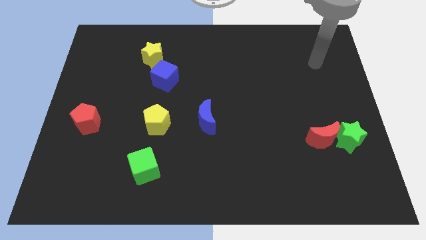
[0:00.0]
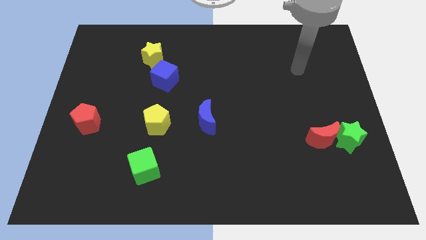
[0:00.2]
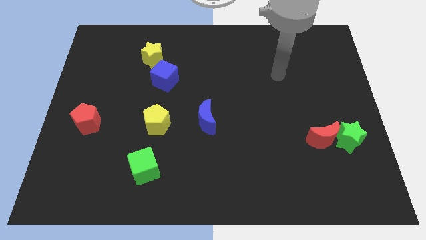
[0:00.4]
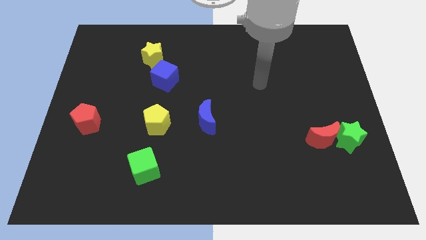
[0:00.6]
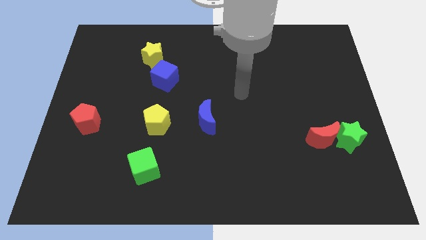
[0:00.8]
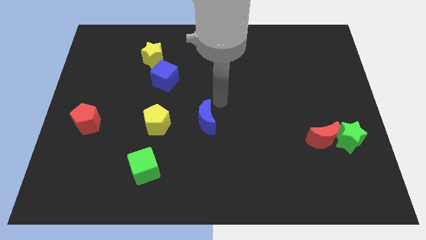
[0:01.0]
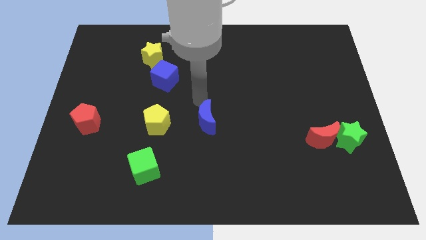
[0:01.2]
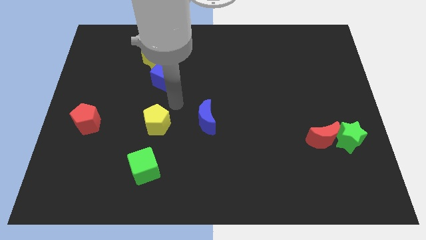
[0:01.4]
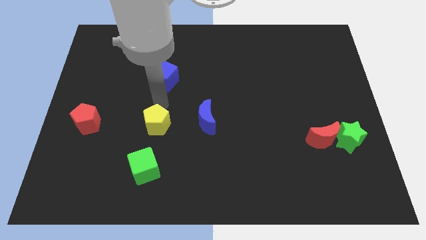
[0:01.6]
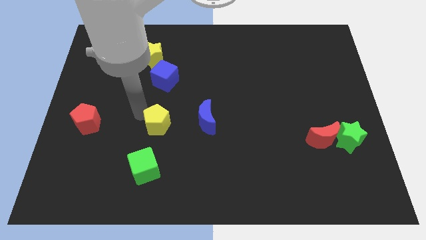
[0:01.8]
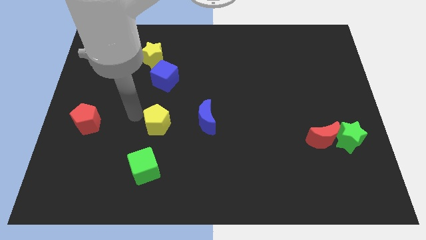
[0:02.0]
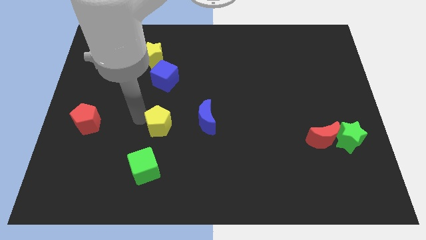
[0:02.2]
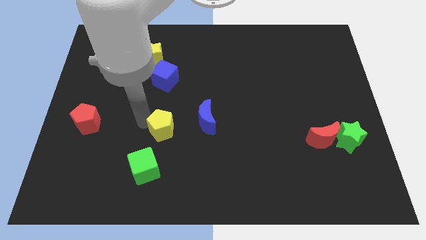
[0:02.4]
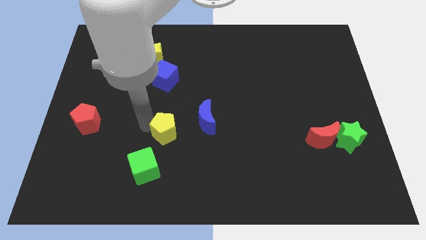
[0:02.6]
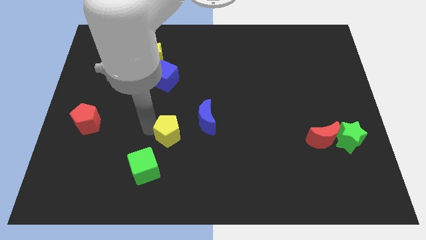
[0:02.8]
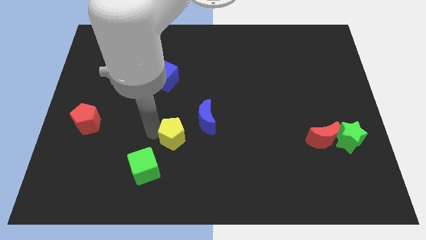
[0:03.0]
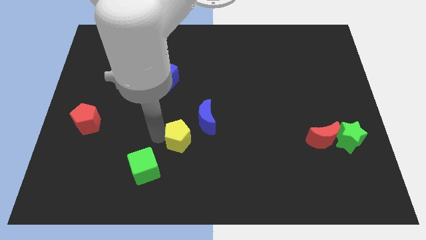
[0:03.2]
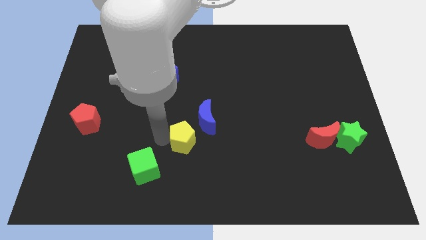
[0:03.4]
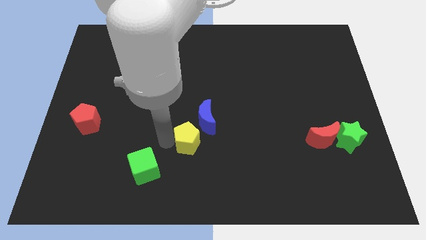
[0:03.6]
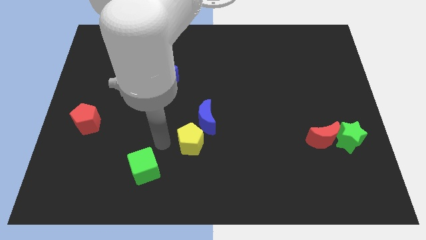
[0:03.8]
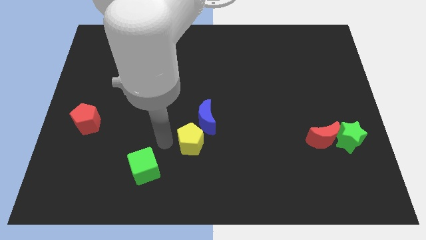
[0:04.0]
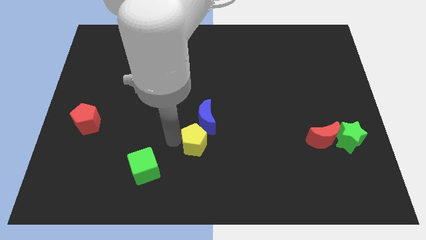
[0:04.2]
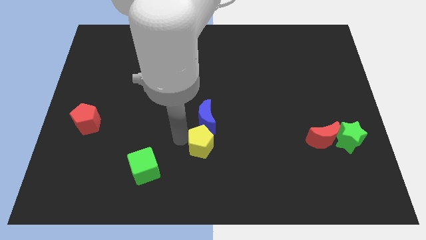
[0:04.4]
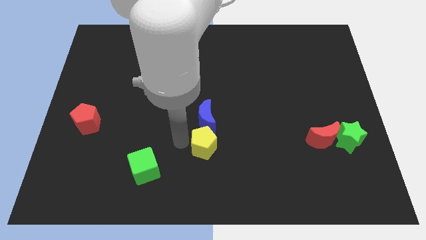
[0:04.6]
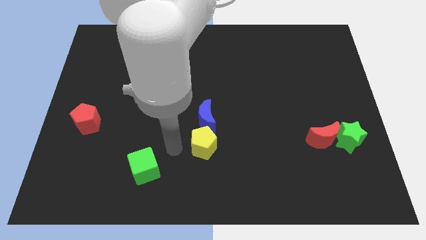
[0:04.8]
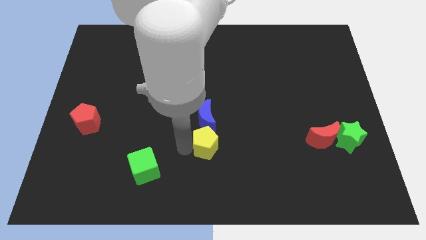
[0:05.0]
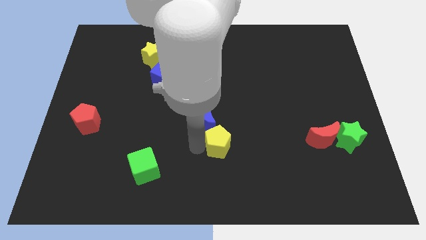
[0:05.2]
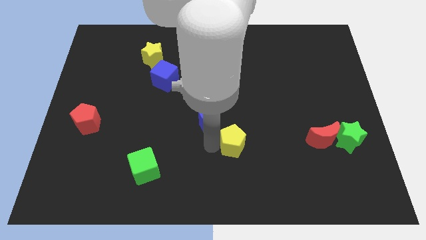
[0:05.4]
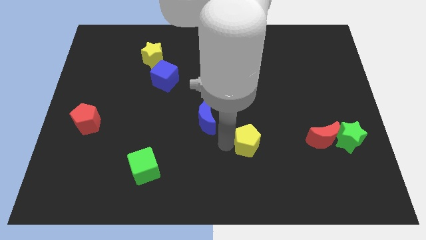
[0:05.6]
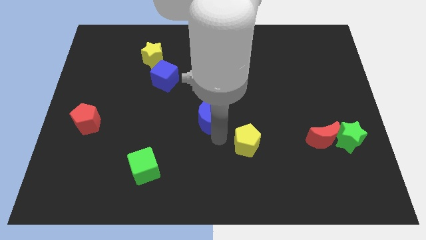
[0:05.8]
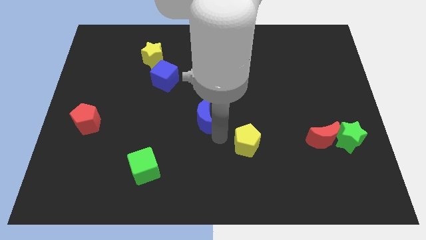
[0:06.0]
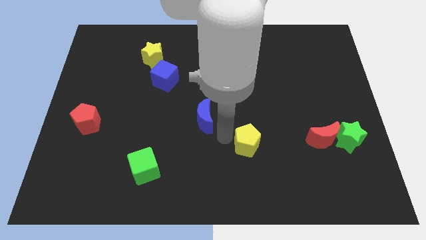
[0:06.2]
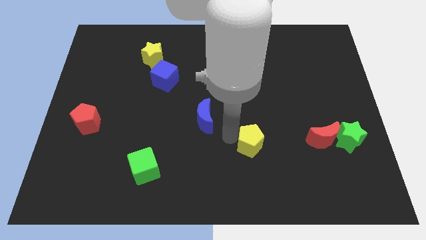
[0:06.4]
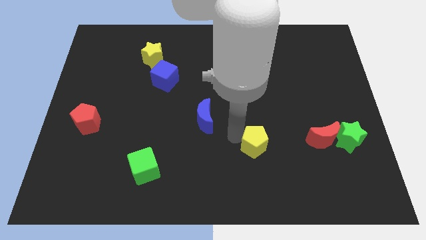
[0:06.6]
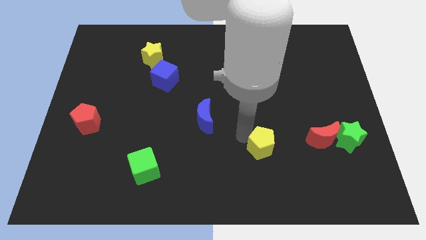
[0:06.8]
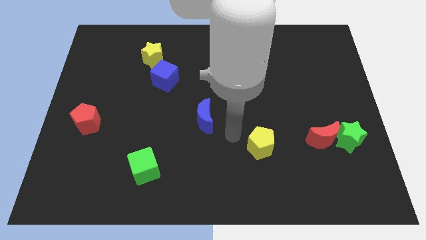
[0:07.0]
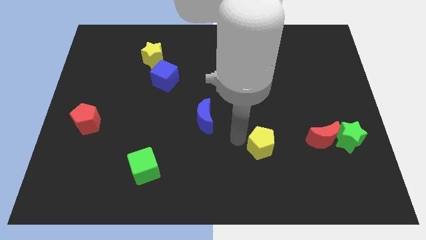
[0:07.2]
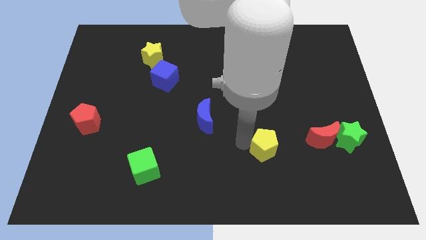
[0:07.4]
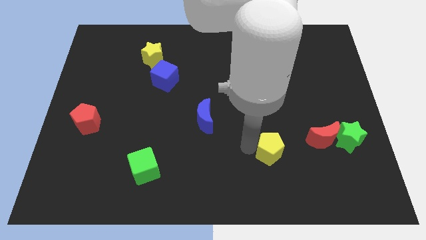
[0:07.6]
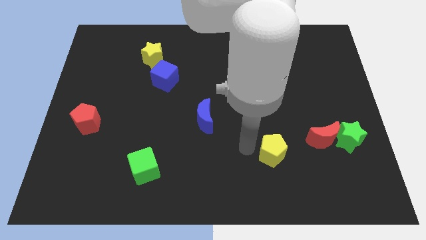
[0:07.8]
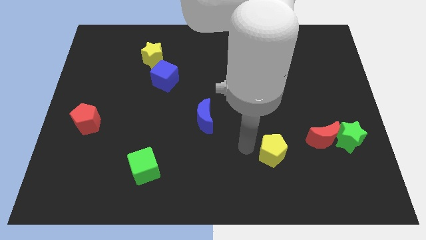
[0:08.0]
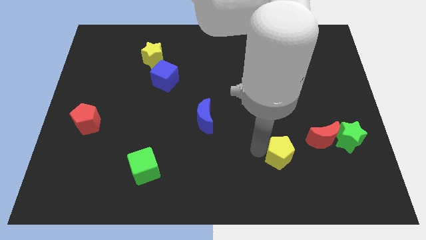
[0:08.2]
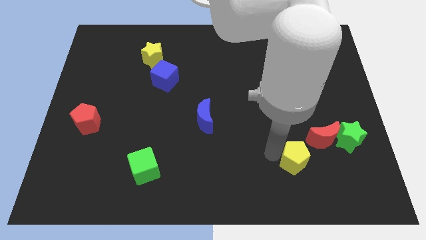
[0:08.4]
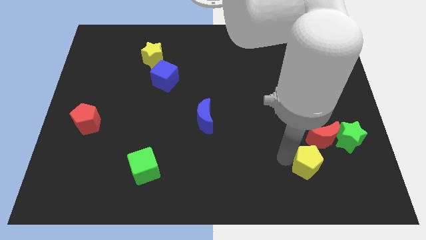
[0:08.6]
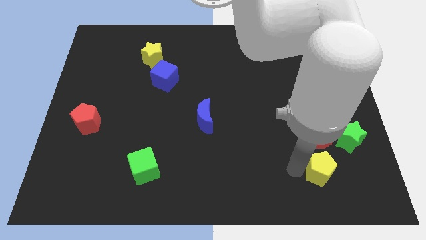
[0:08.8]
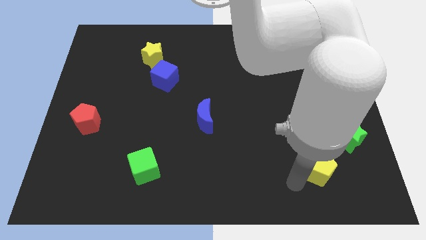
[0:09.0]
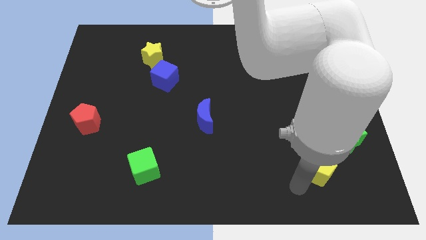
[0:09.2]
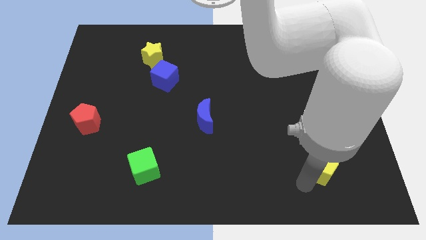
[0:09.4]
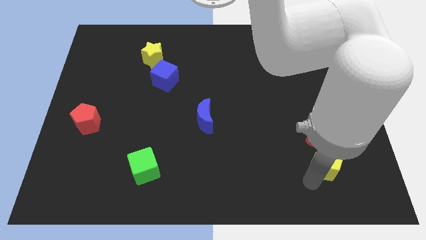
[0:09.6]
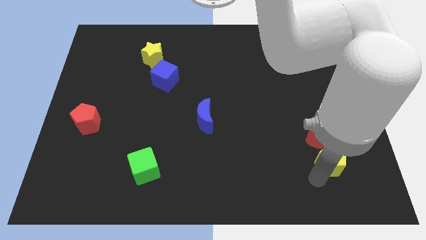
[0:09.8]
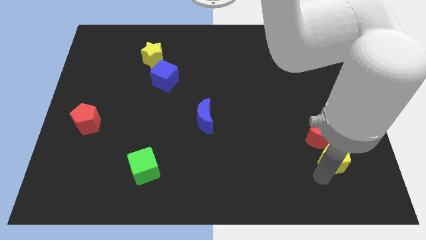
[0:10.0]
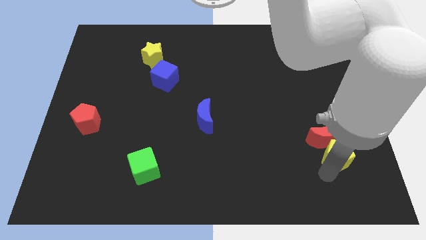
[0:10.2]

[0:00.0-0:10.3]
put the yellow pentagon towards the green star

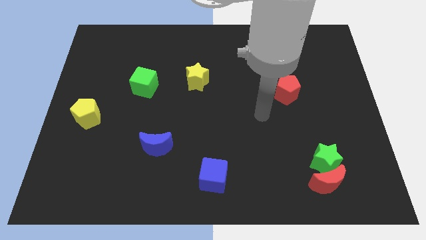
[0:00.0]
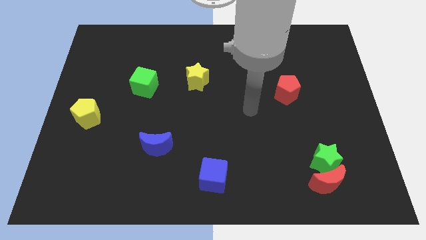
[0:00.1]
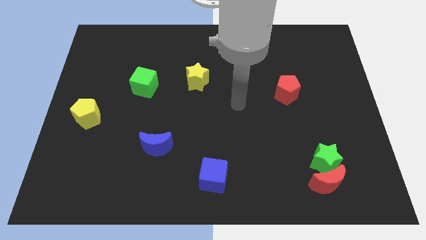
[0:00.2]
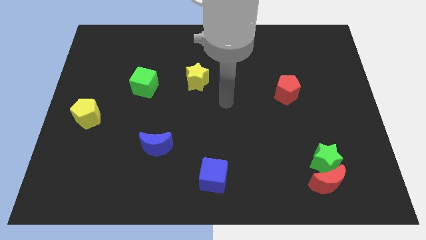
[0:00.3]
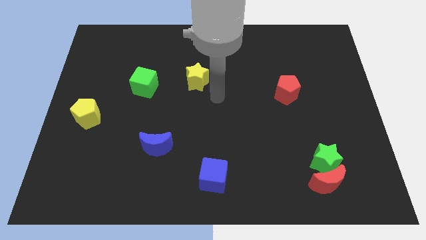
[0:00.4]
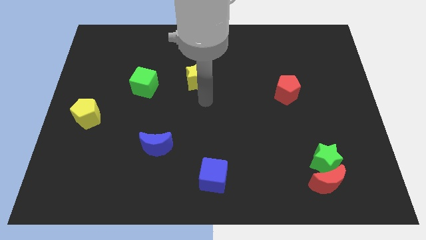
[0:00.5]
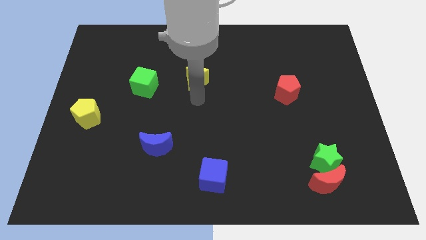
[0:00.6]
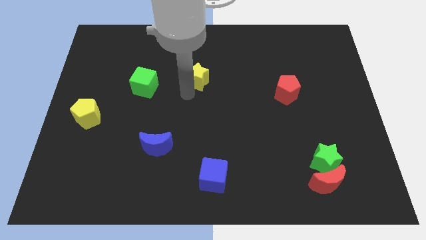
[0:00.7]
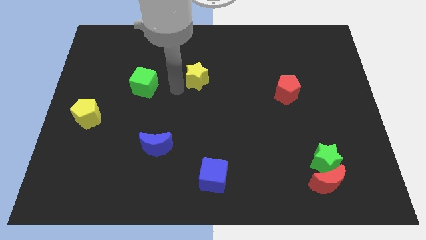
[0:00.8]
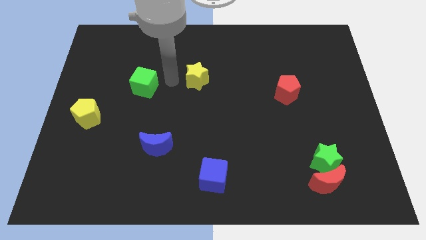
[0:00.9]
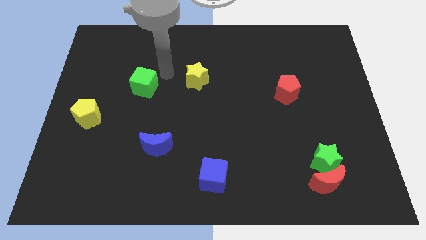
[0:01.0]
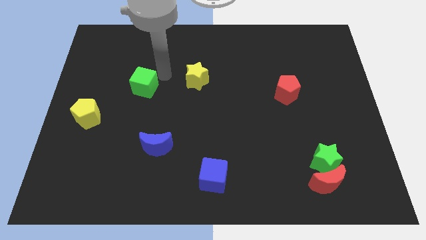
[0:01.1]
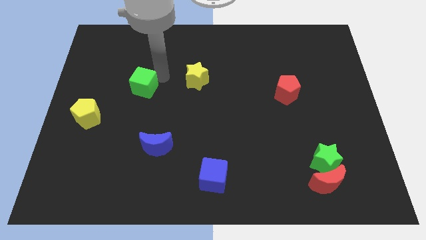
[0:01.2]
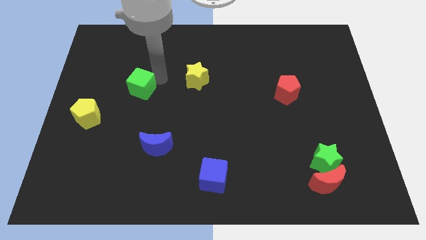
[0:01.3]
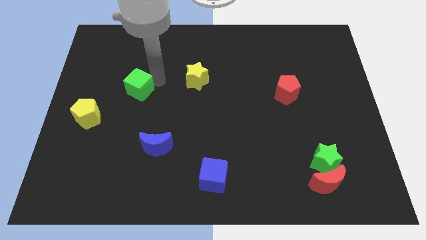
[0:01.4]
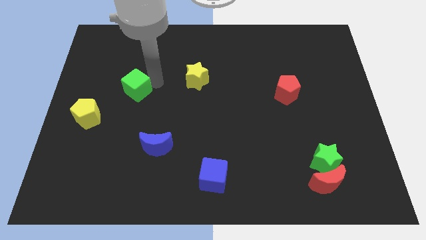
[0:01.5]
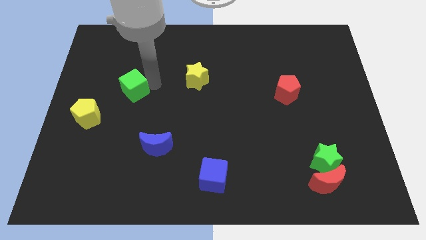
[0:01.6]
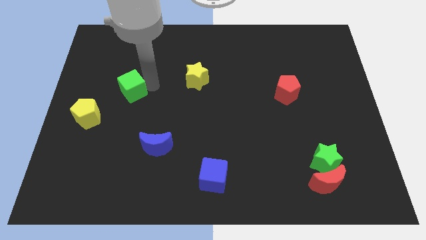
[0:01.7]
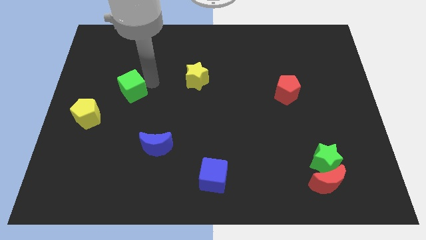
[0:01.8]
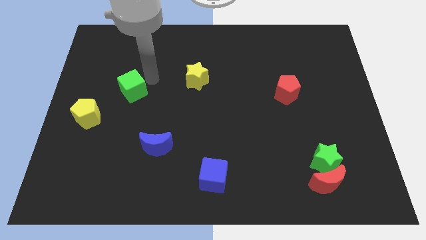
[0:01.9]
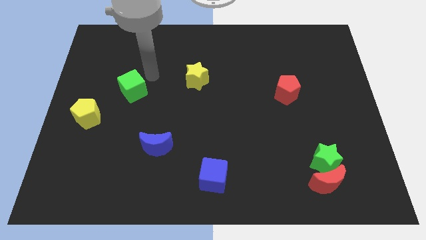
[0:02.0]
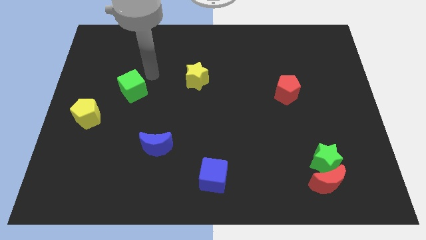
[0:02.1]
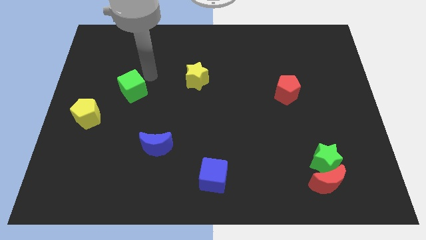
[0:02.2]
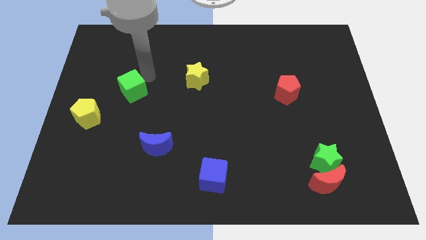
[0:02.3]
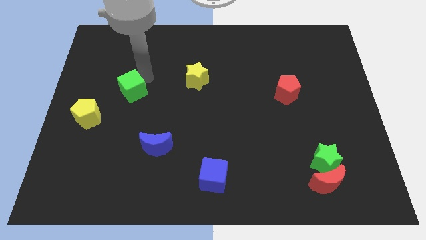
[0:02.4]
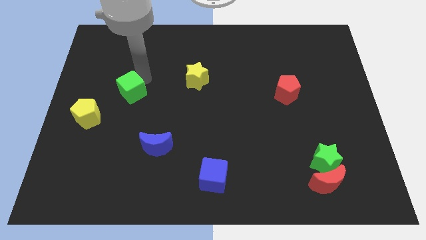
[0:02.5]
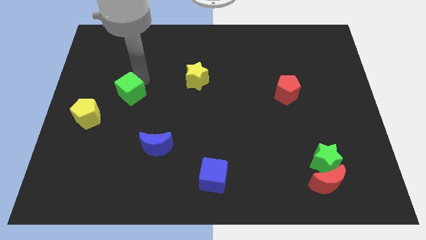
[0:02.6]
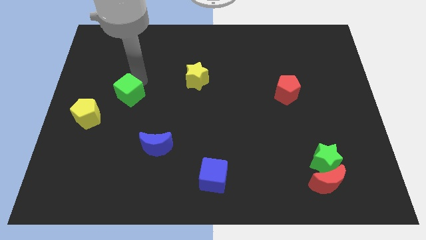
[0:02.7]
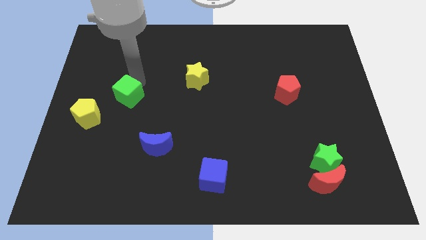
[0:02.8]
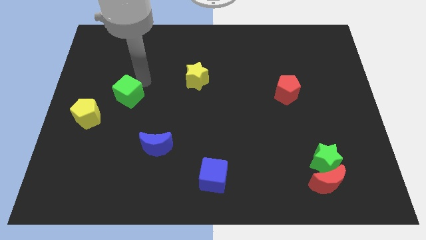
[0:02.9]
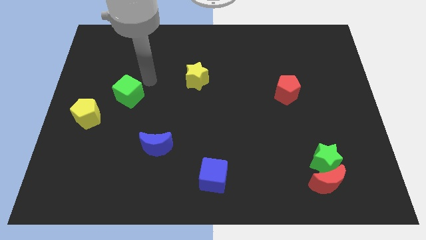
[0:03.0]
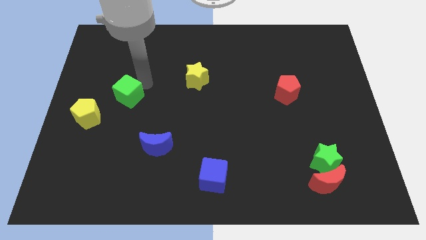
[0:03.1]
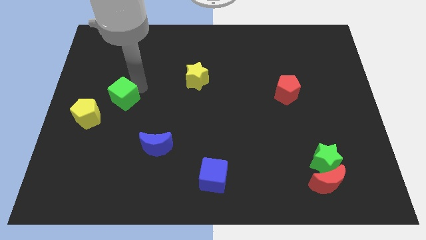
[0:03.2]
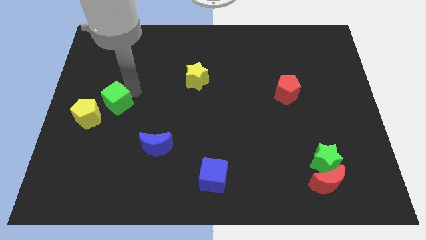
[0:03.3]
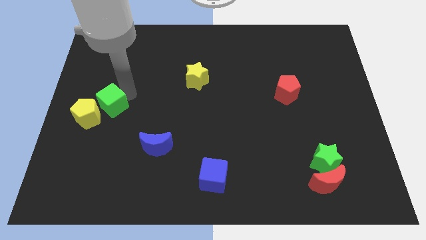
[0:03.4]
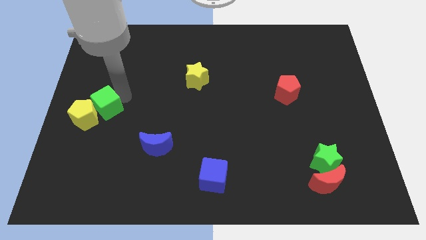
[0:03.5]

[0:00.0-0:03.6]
slide the green cube close to the yellow pentagon
